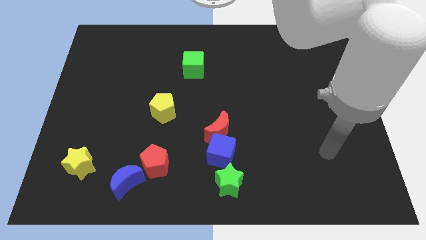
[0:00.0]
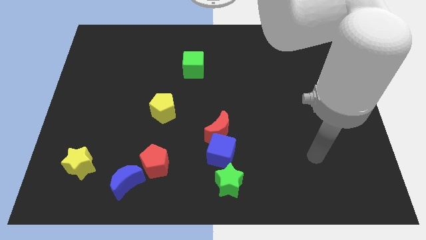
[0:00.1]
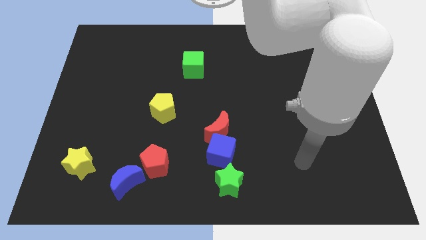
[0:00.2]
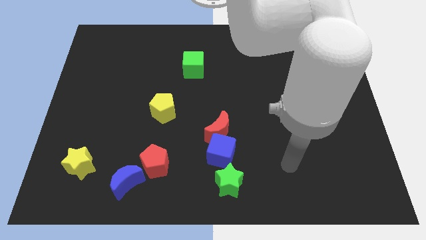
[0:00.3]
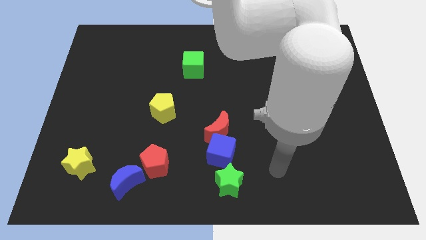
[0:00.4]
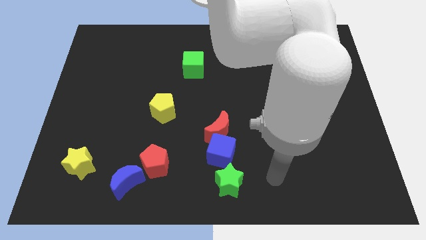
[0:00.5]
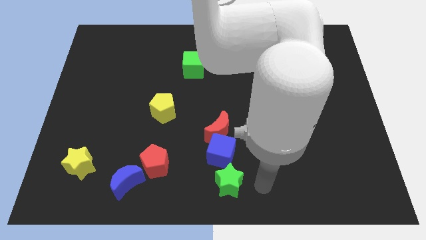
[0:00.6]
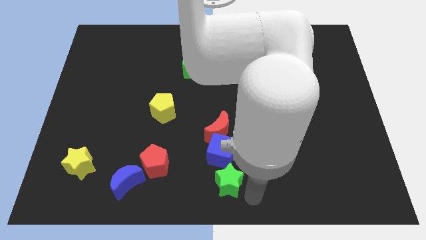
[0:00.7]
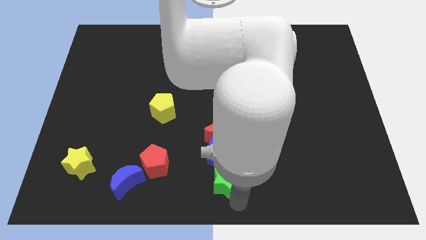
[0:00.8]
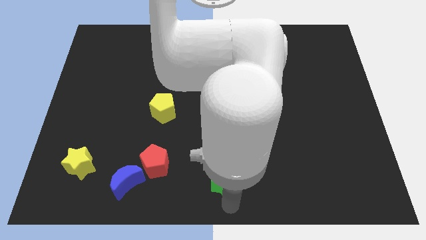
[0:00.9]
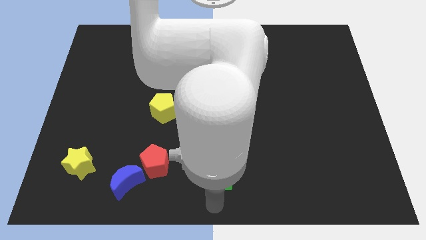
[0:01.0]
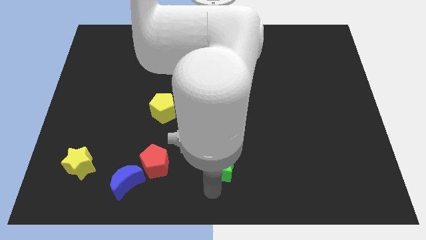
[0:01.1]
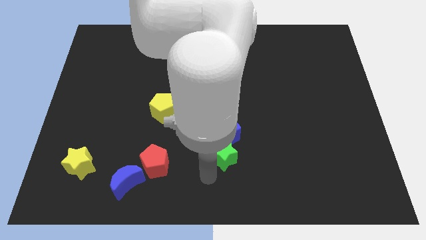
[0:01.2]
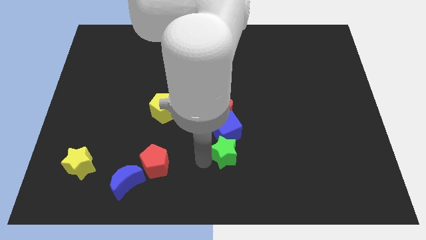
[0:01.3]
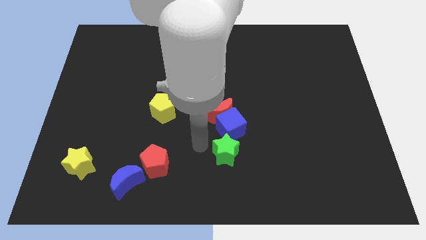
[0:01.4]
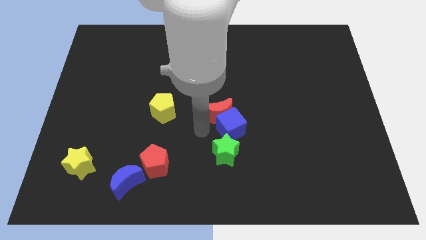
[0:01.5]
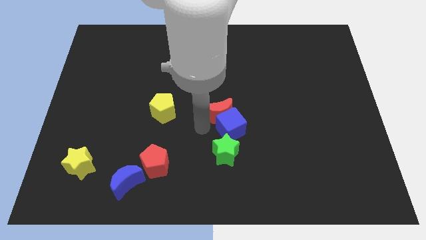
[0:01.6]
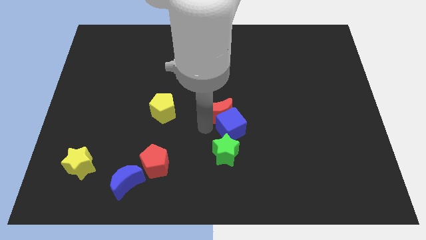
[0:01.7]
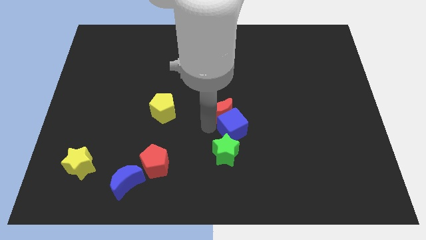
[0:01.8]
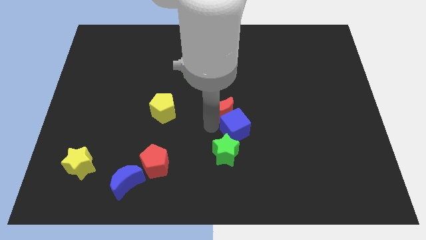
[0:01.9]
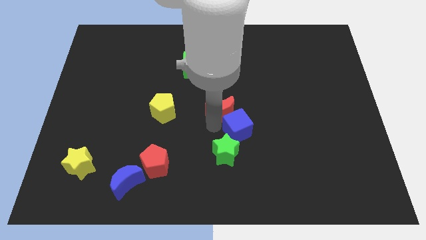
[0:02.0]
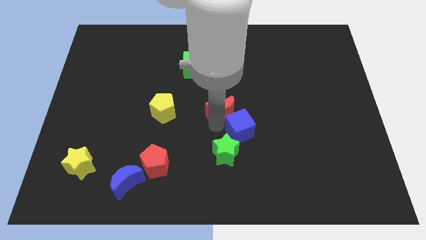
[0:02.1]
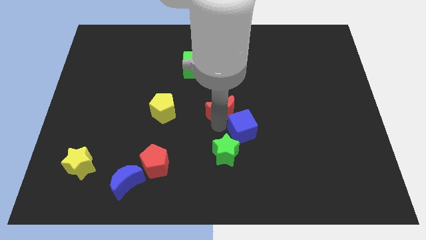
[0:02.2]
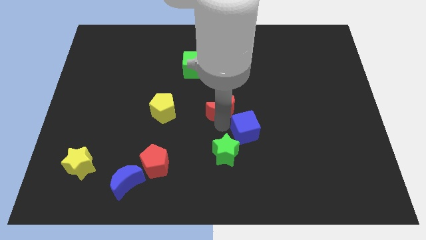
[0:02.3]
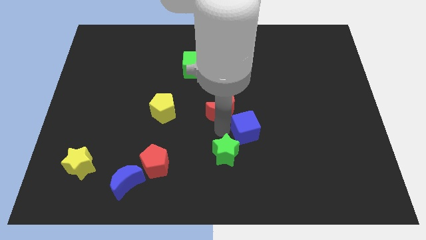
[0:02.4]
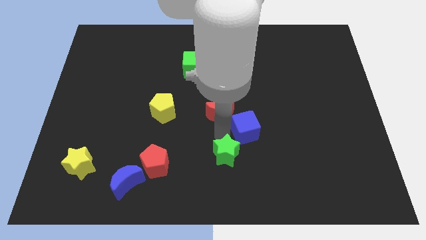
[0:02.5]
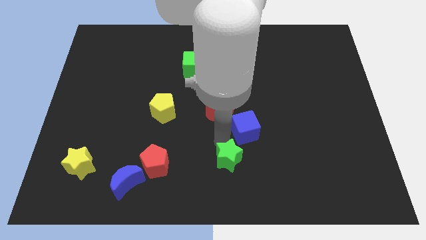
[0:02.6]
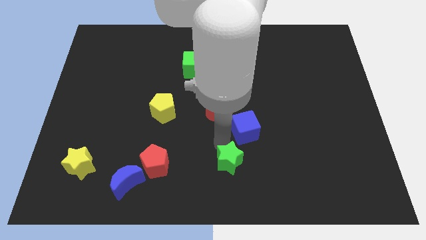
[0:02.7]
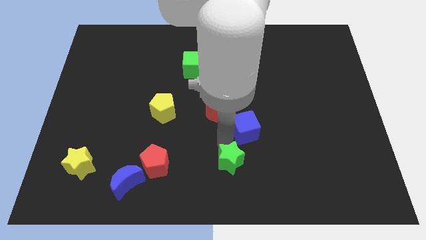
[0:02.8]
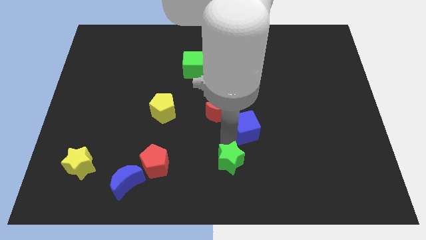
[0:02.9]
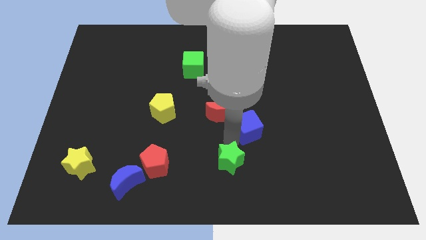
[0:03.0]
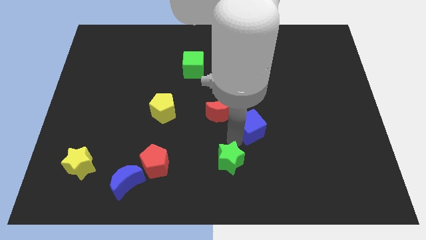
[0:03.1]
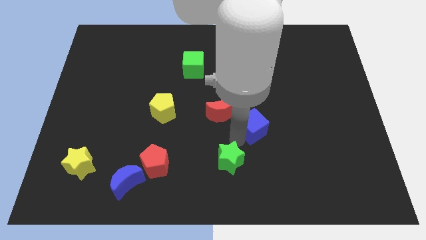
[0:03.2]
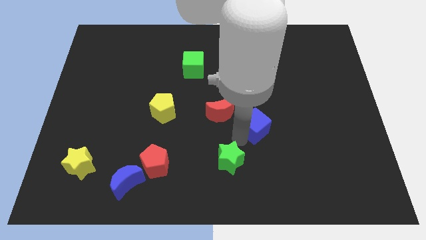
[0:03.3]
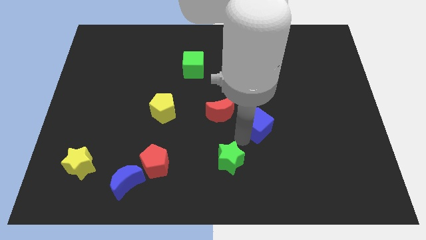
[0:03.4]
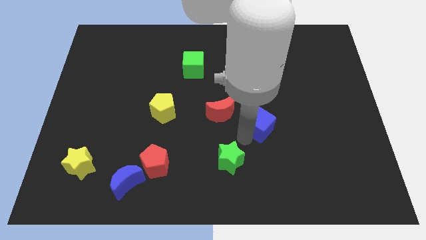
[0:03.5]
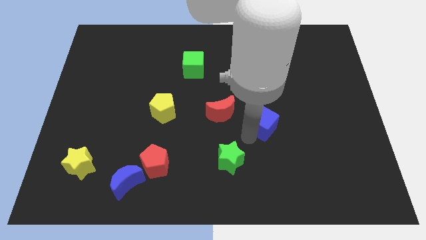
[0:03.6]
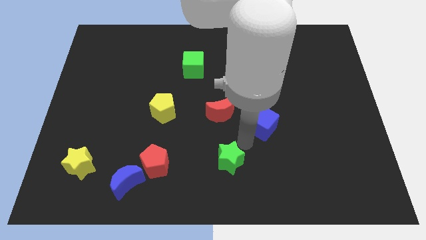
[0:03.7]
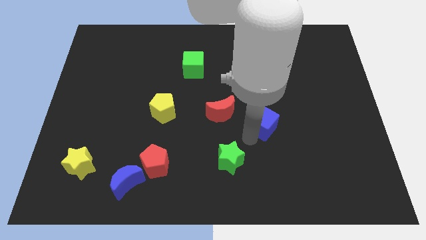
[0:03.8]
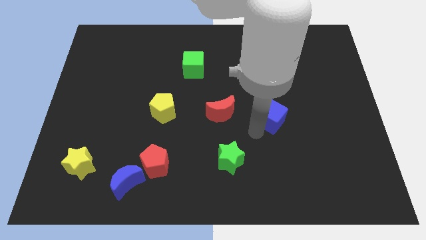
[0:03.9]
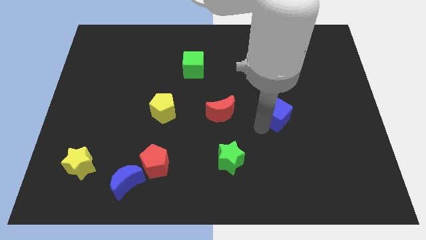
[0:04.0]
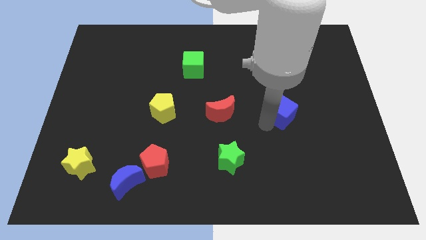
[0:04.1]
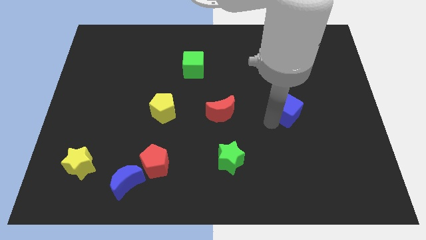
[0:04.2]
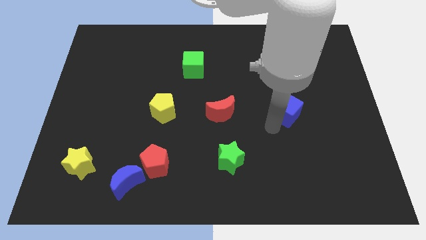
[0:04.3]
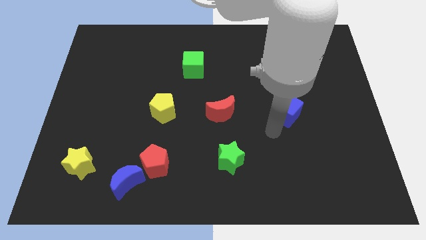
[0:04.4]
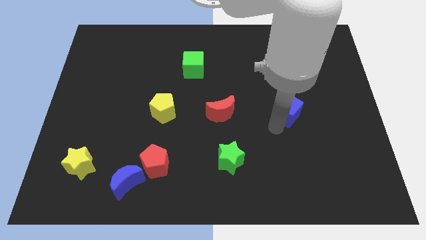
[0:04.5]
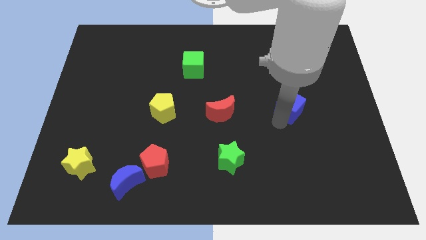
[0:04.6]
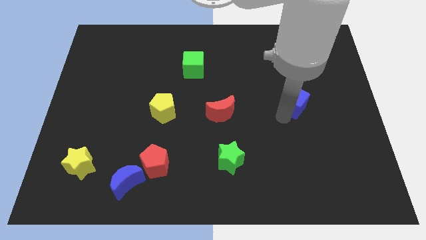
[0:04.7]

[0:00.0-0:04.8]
slide the blue cube upwards and then right

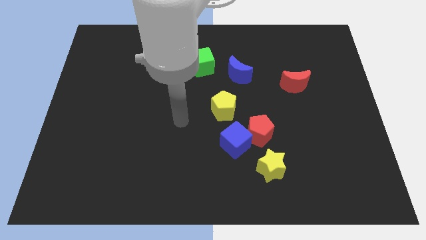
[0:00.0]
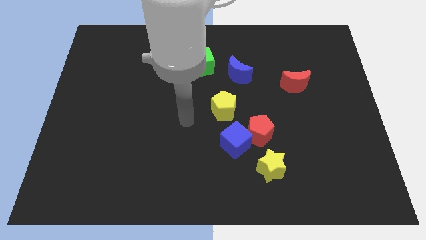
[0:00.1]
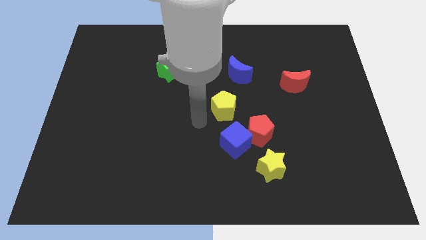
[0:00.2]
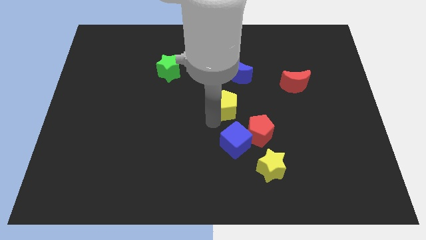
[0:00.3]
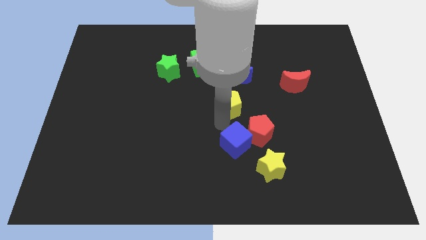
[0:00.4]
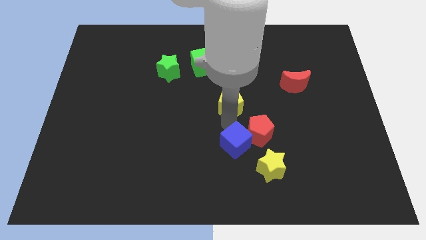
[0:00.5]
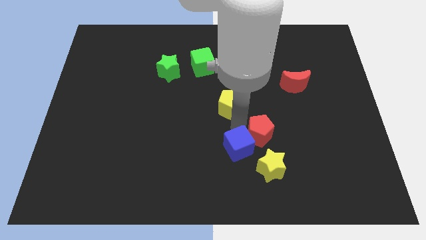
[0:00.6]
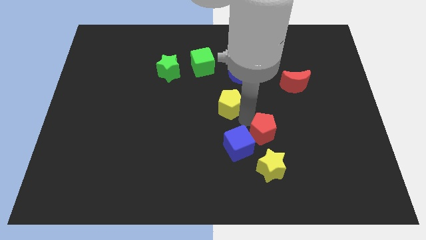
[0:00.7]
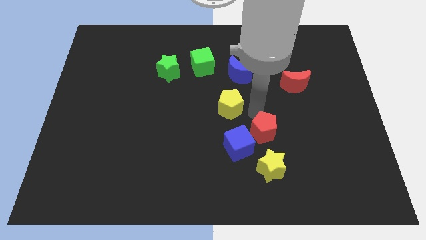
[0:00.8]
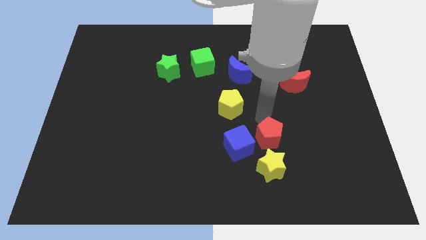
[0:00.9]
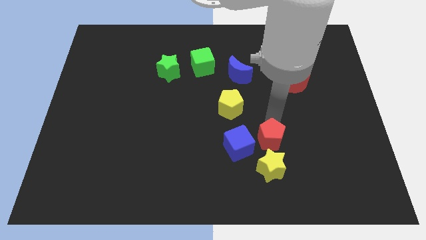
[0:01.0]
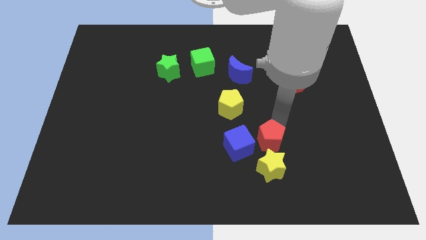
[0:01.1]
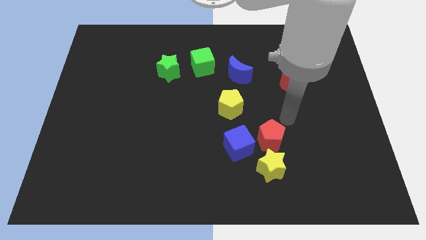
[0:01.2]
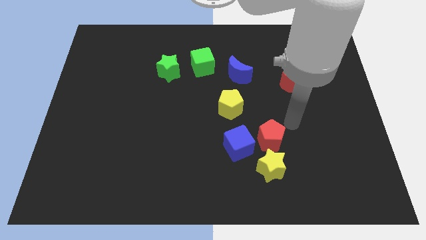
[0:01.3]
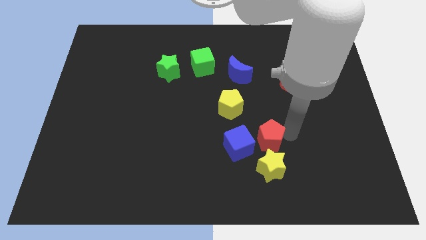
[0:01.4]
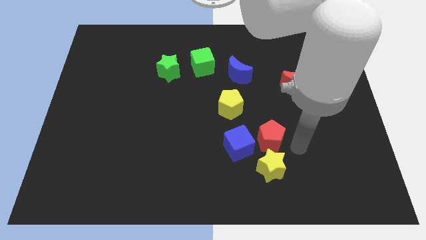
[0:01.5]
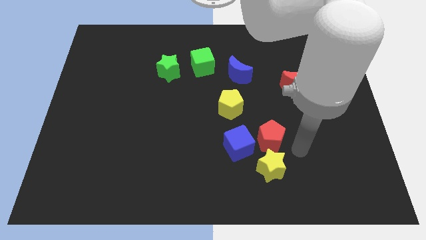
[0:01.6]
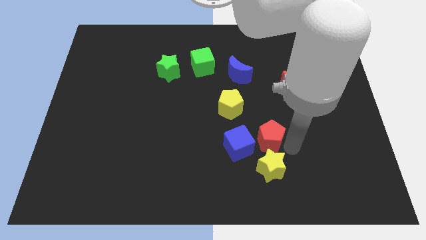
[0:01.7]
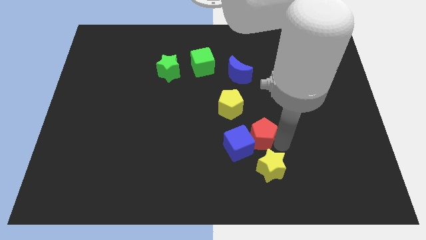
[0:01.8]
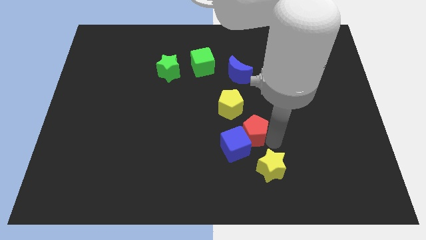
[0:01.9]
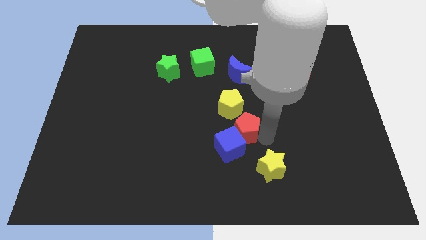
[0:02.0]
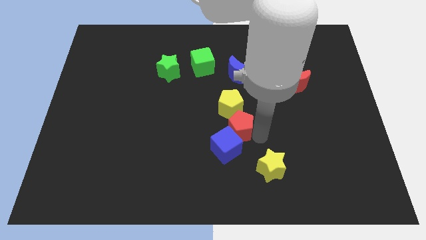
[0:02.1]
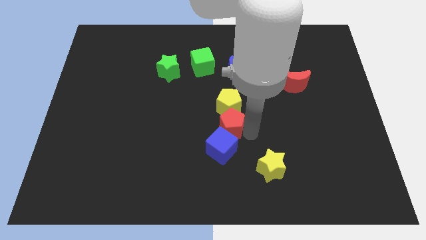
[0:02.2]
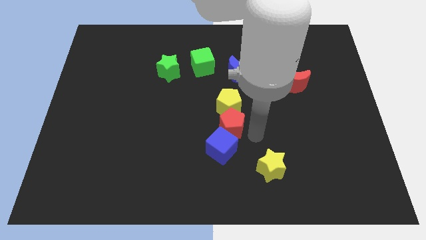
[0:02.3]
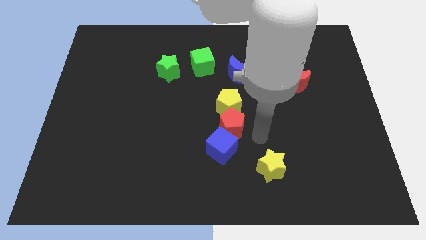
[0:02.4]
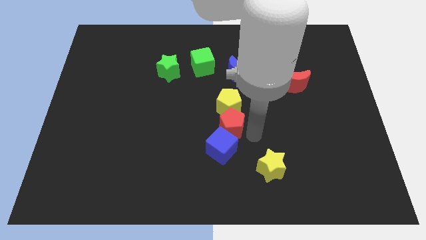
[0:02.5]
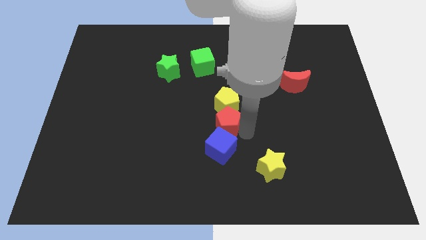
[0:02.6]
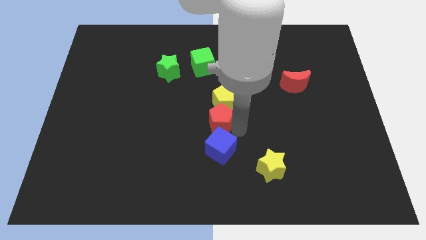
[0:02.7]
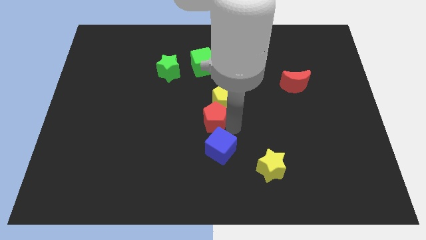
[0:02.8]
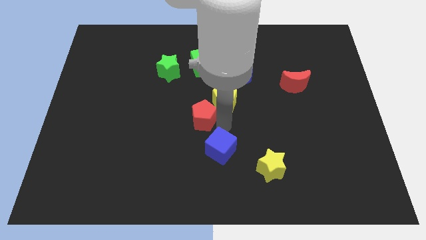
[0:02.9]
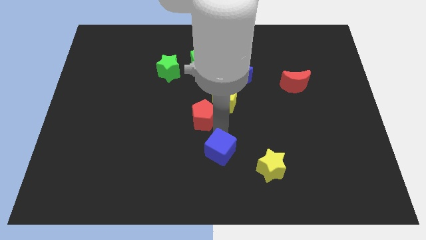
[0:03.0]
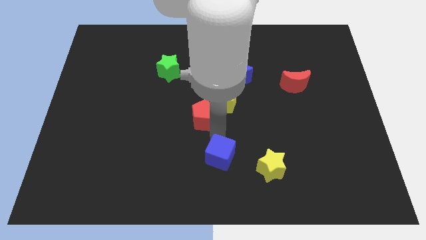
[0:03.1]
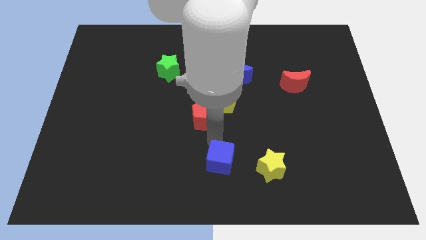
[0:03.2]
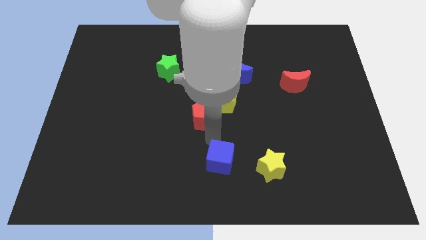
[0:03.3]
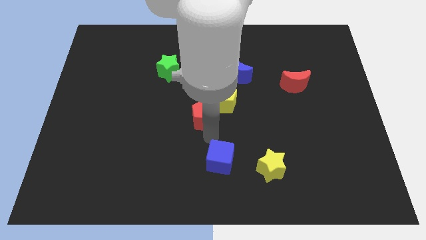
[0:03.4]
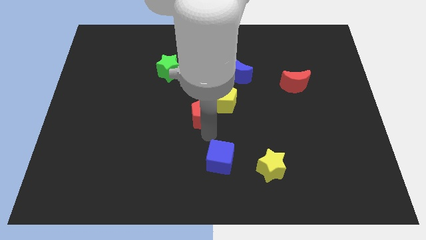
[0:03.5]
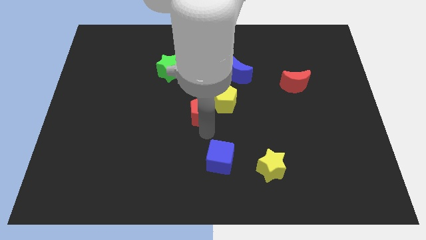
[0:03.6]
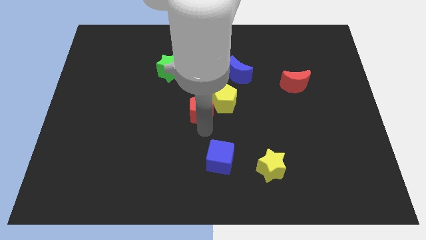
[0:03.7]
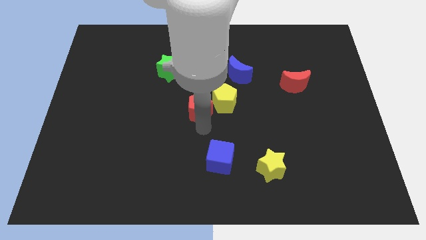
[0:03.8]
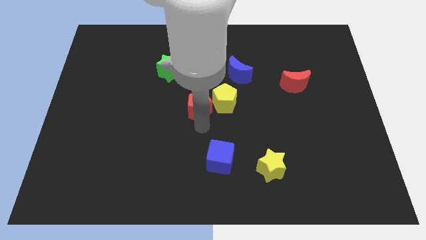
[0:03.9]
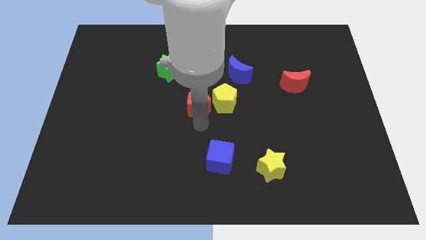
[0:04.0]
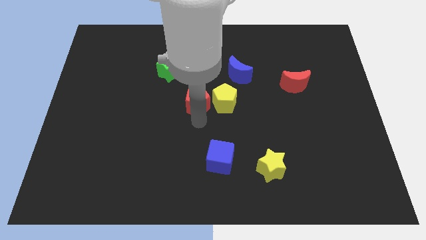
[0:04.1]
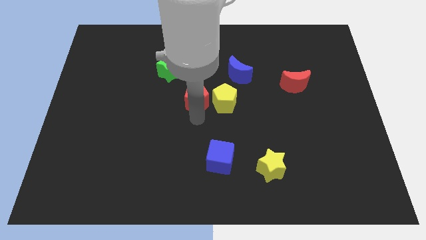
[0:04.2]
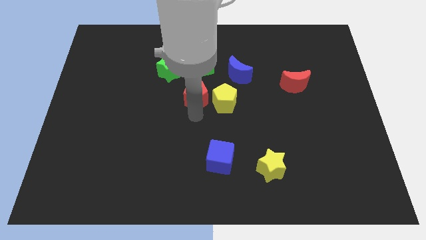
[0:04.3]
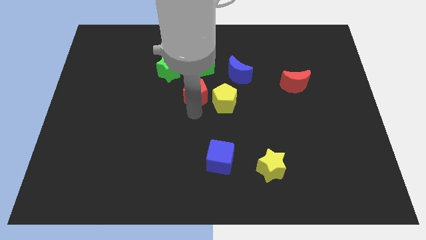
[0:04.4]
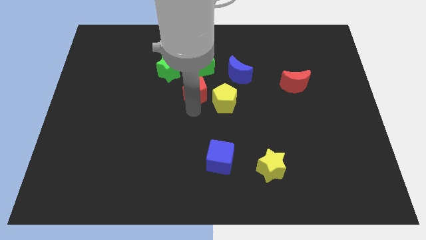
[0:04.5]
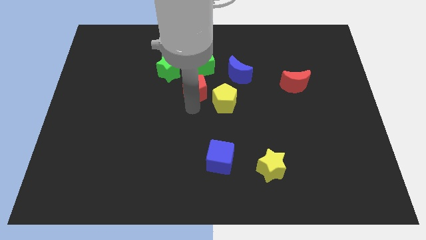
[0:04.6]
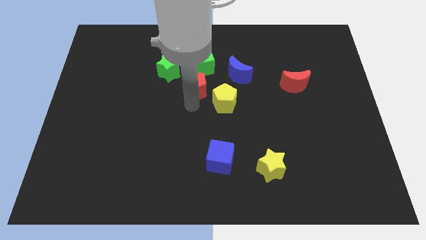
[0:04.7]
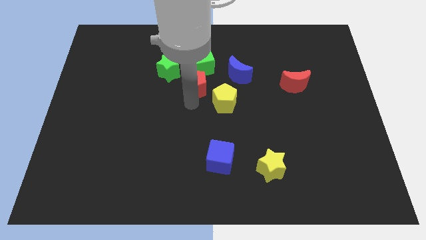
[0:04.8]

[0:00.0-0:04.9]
slide the red pentagon upwards and left
